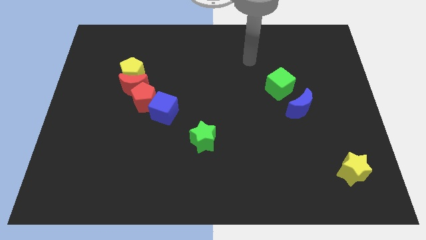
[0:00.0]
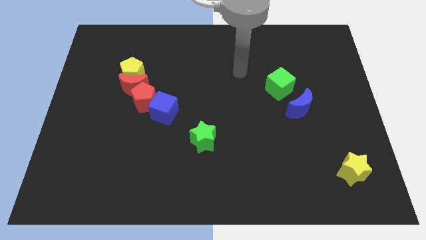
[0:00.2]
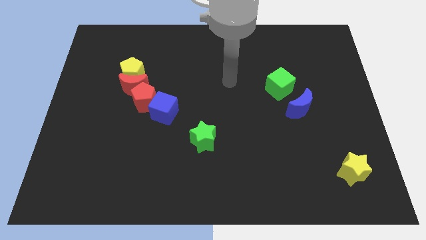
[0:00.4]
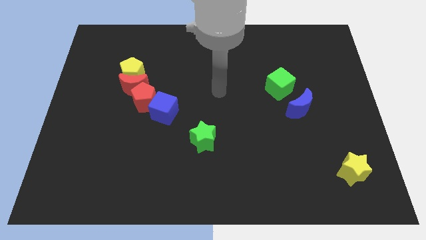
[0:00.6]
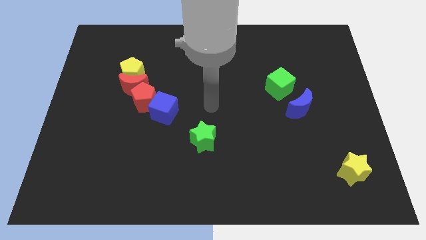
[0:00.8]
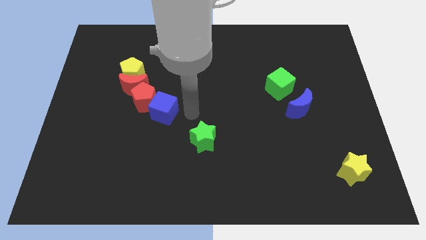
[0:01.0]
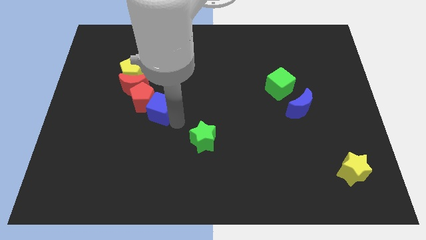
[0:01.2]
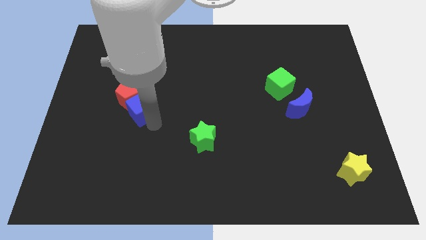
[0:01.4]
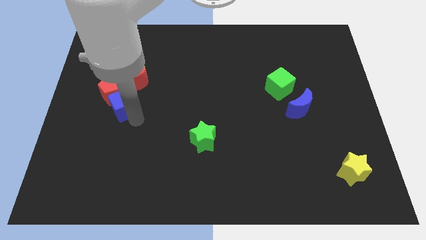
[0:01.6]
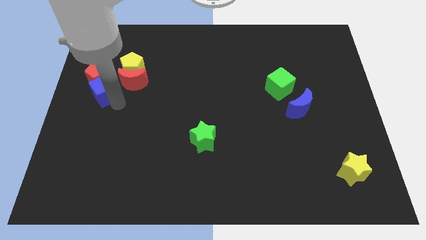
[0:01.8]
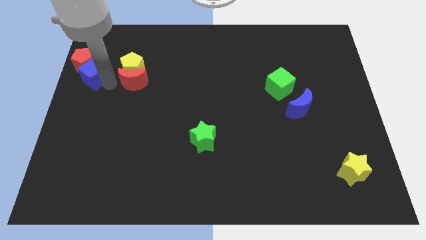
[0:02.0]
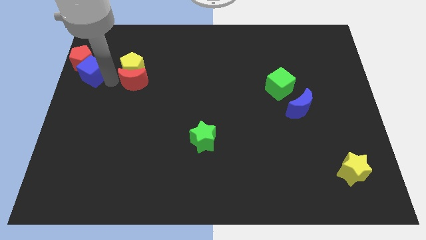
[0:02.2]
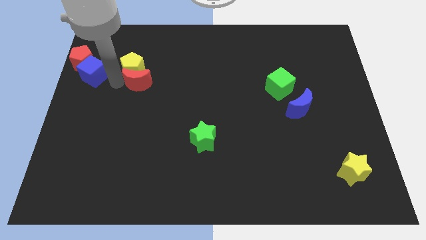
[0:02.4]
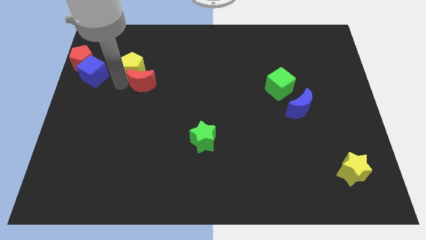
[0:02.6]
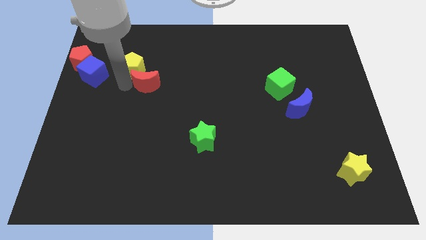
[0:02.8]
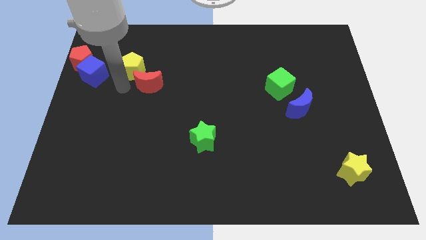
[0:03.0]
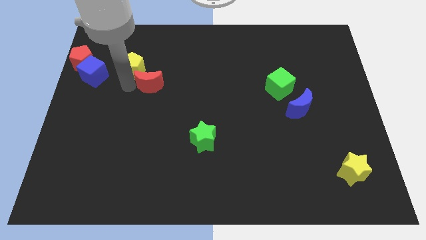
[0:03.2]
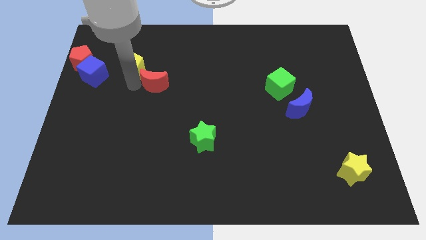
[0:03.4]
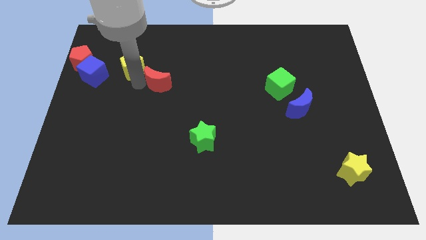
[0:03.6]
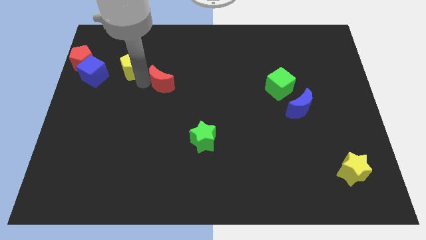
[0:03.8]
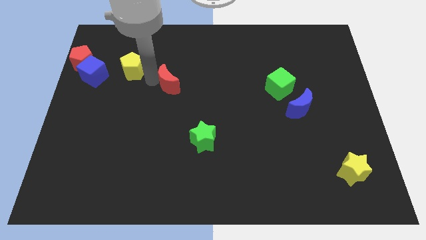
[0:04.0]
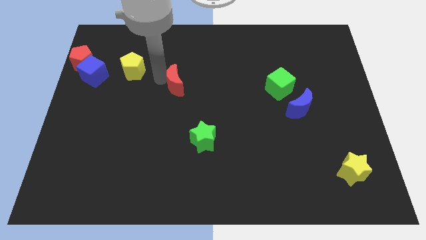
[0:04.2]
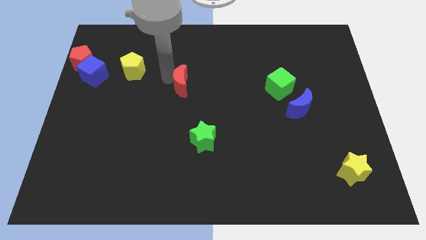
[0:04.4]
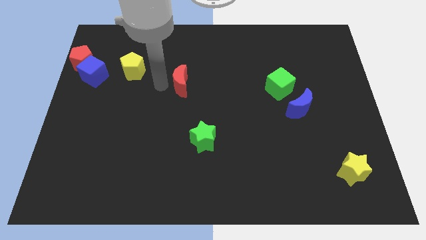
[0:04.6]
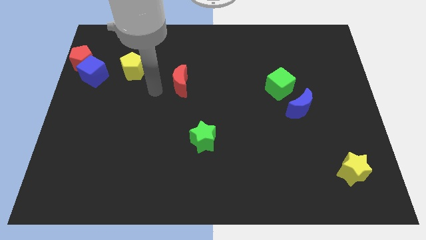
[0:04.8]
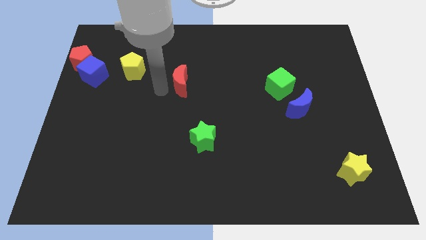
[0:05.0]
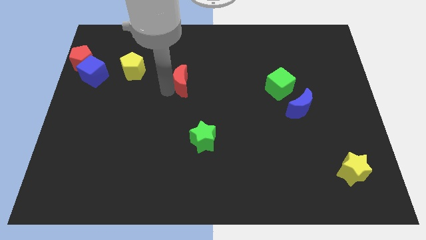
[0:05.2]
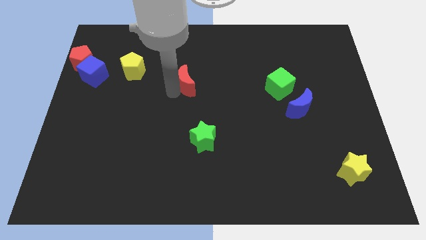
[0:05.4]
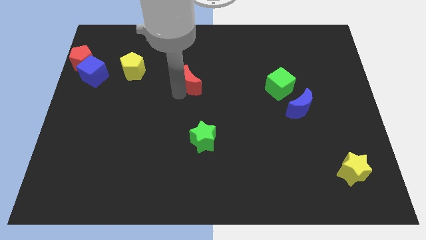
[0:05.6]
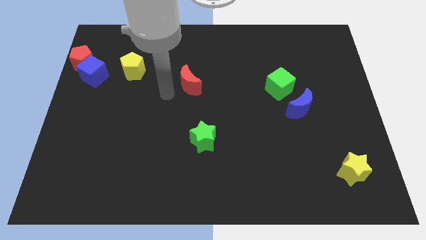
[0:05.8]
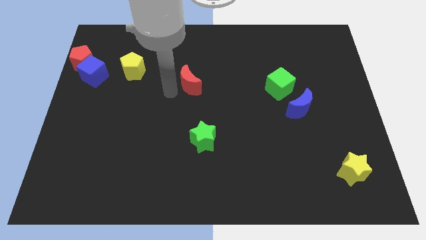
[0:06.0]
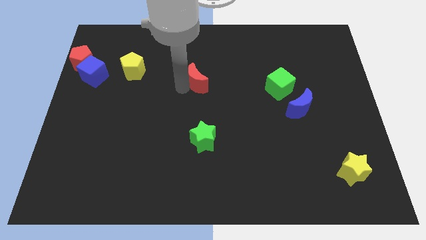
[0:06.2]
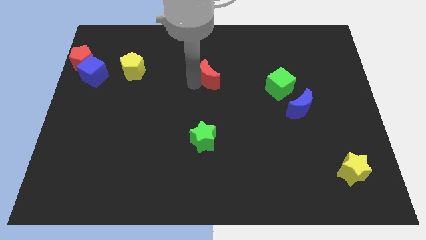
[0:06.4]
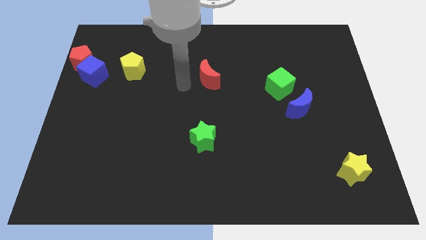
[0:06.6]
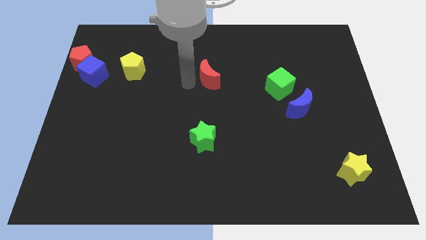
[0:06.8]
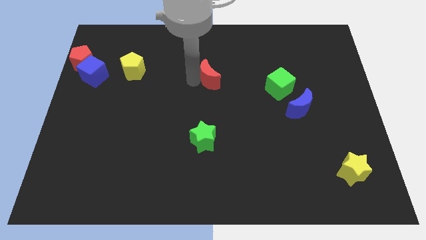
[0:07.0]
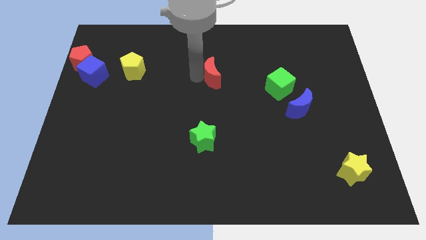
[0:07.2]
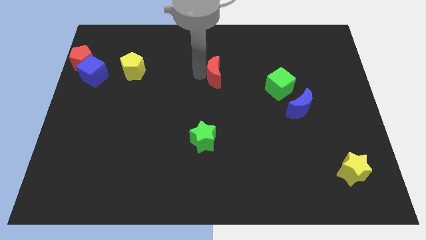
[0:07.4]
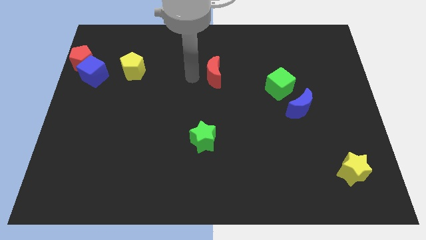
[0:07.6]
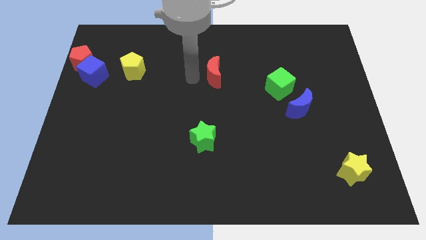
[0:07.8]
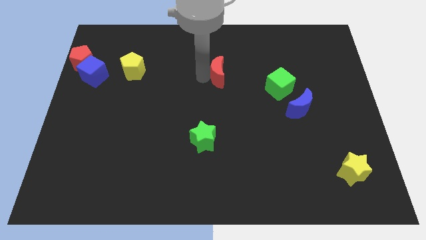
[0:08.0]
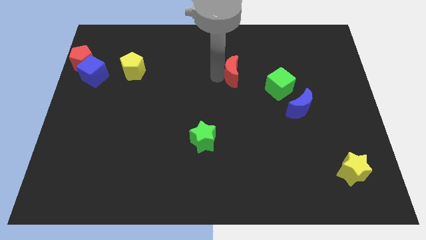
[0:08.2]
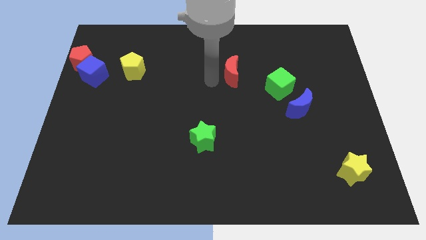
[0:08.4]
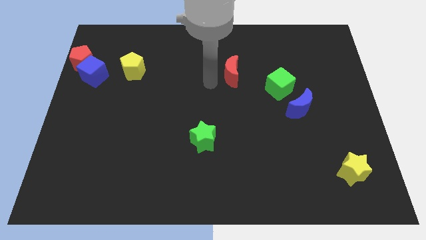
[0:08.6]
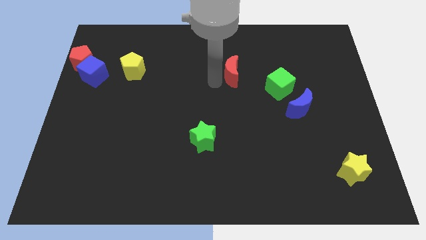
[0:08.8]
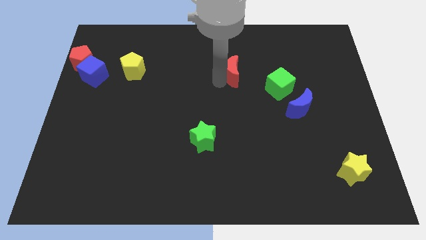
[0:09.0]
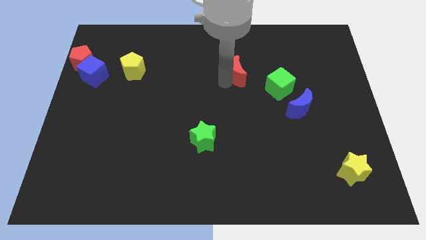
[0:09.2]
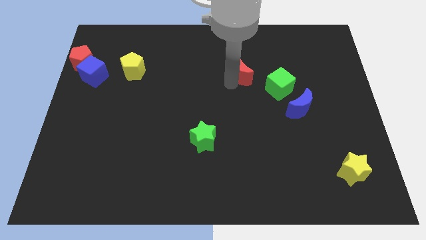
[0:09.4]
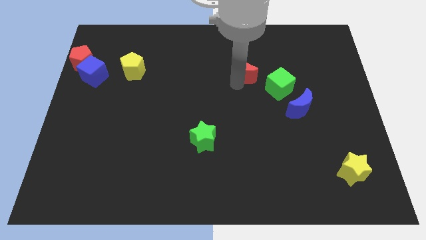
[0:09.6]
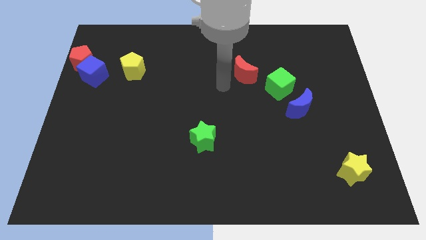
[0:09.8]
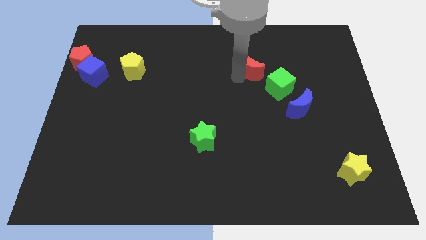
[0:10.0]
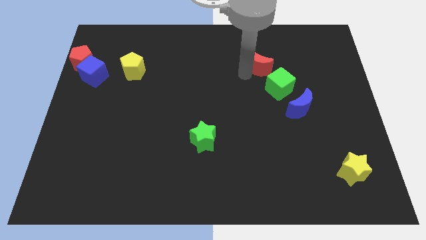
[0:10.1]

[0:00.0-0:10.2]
push the red moon to the top side of the green cube

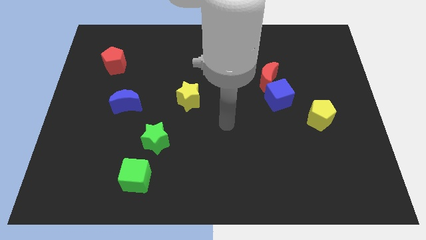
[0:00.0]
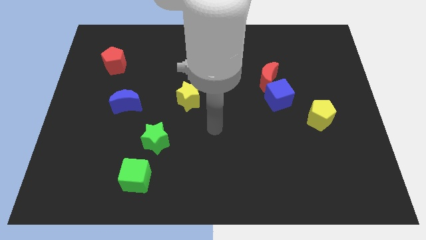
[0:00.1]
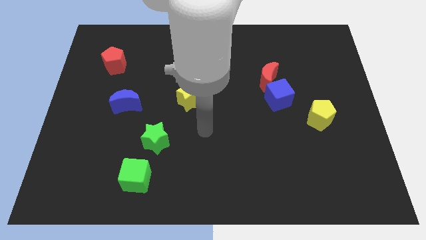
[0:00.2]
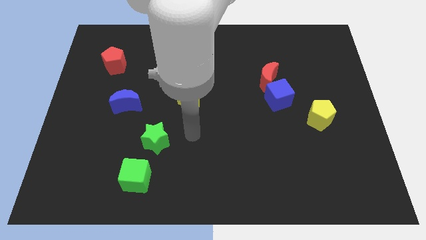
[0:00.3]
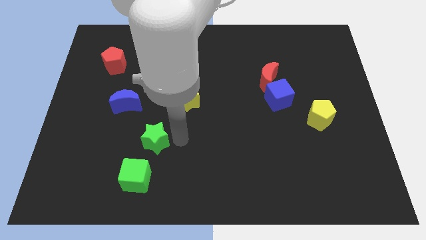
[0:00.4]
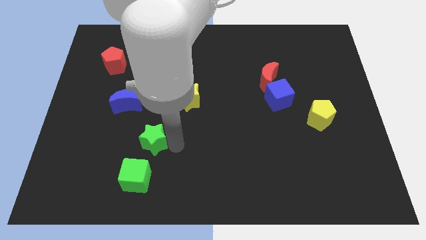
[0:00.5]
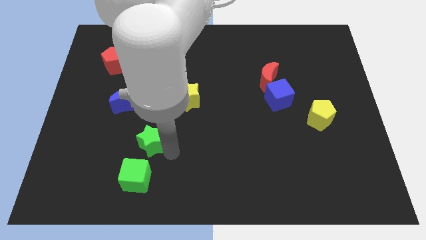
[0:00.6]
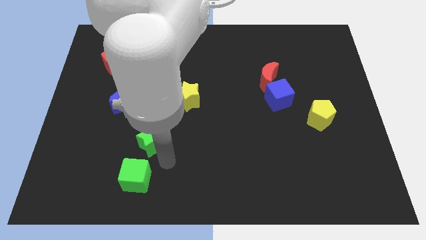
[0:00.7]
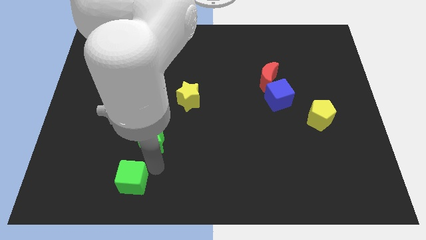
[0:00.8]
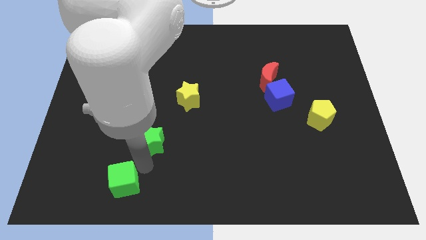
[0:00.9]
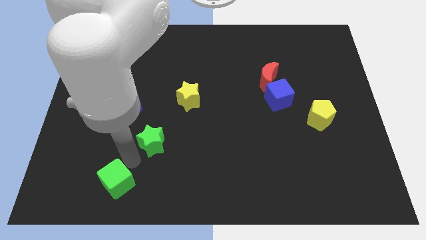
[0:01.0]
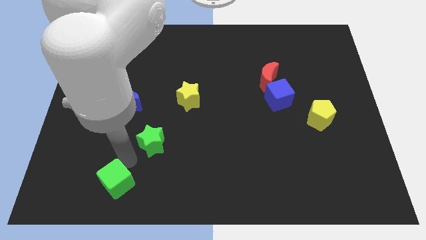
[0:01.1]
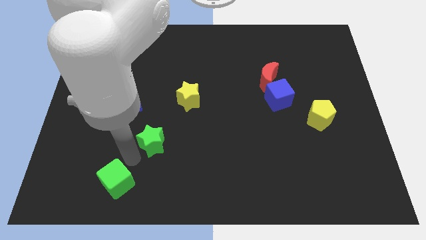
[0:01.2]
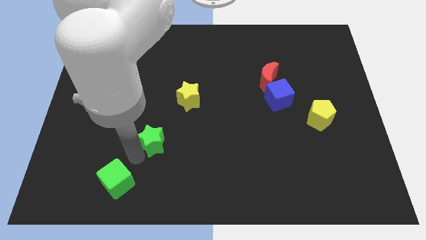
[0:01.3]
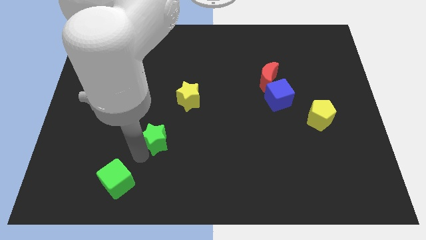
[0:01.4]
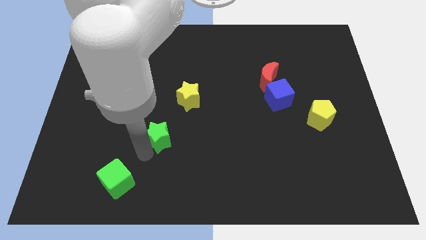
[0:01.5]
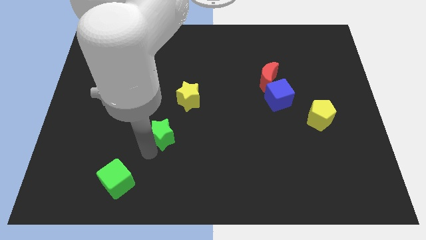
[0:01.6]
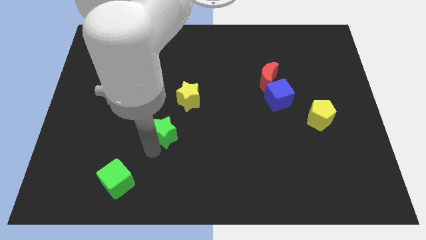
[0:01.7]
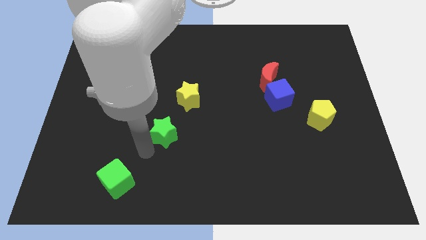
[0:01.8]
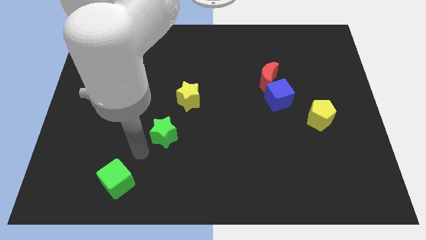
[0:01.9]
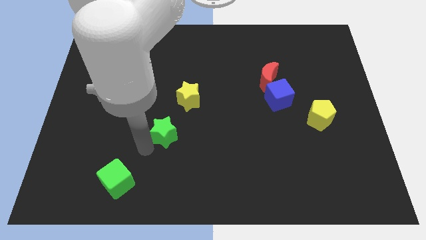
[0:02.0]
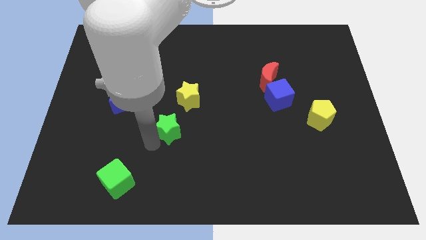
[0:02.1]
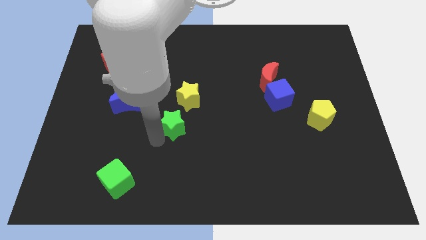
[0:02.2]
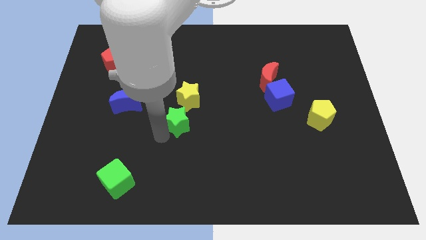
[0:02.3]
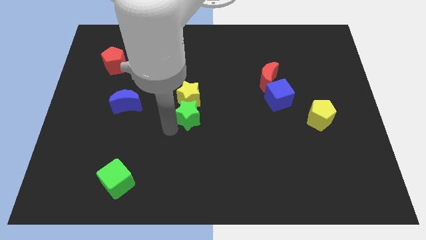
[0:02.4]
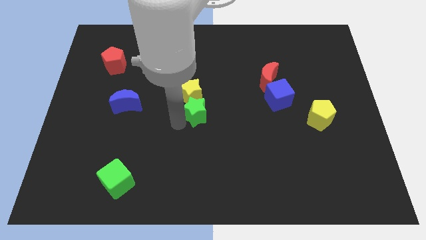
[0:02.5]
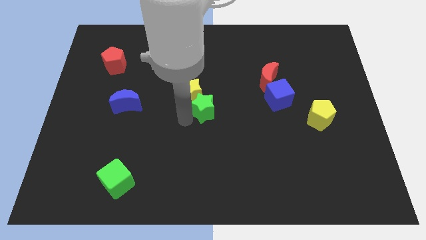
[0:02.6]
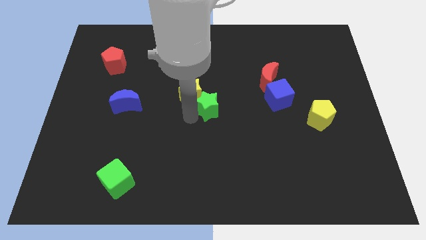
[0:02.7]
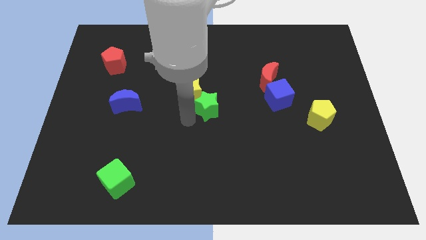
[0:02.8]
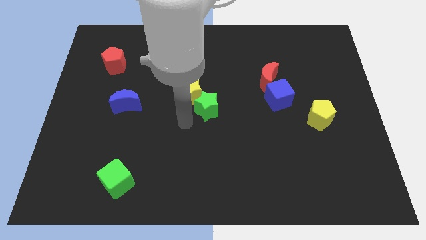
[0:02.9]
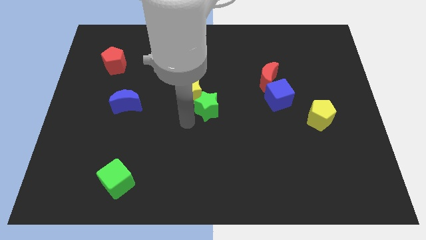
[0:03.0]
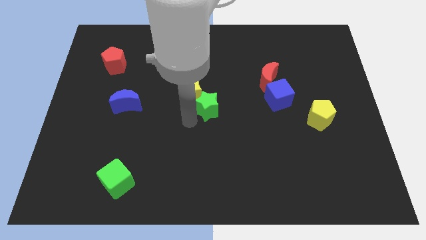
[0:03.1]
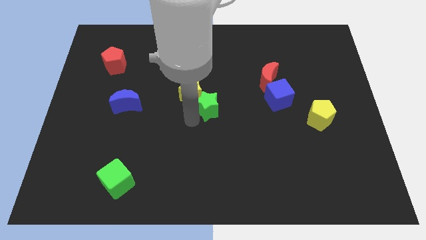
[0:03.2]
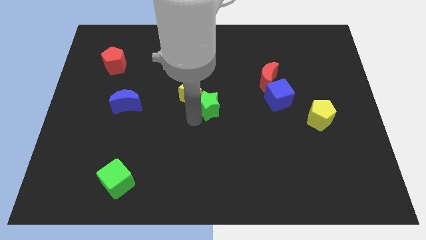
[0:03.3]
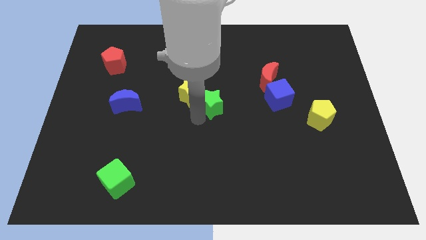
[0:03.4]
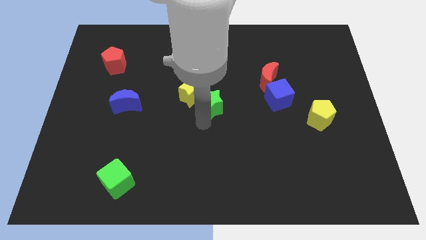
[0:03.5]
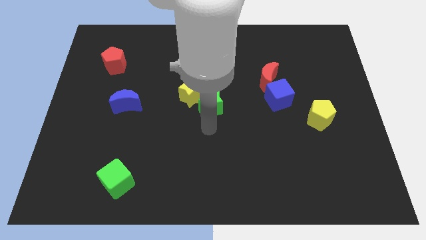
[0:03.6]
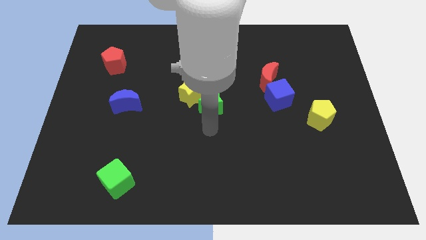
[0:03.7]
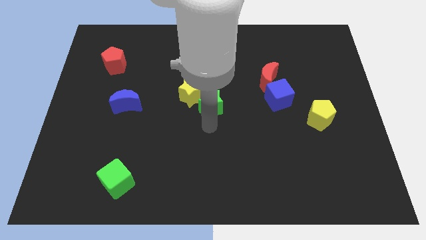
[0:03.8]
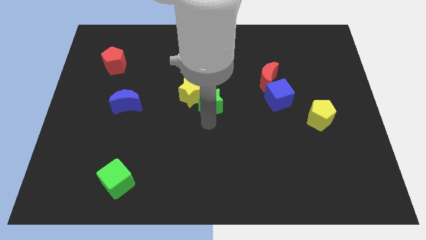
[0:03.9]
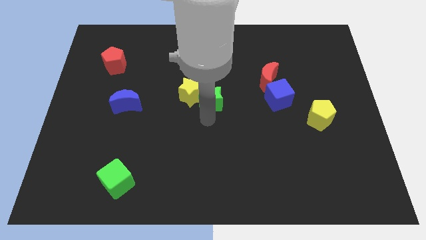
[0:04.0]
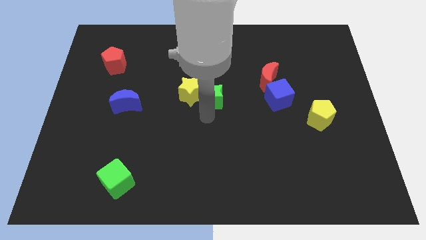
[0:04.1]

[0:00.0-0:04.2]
push the green star to the top right of the yellow star
